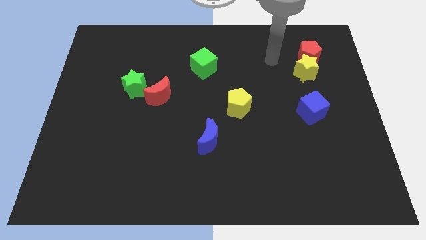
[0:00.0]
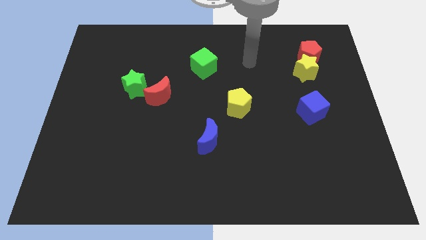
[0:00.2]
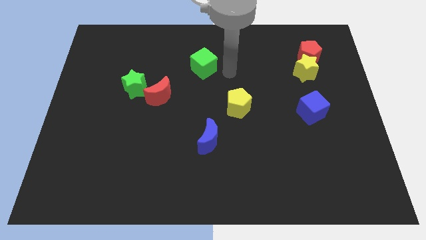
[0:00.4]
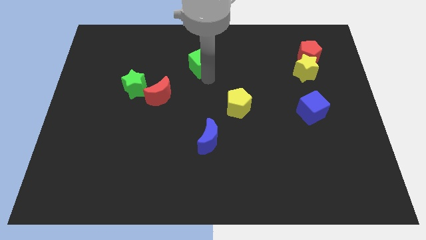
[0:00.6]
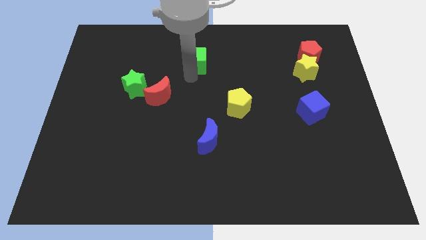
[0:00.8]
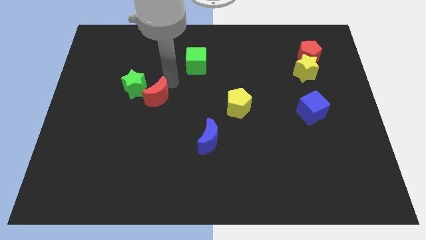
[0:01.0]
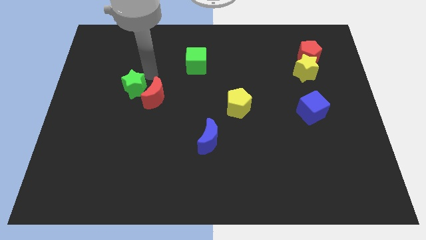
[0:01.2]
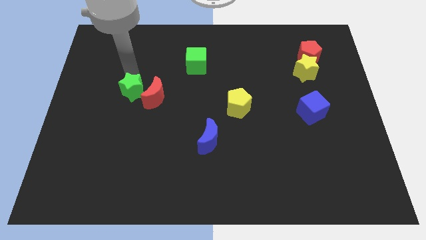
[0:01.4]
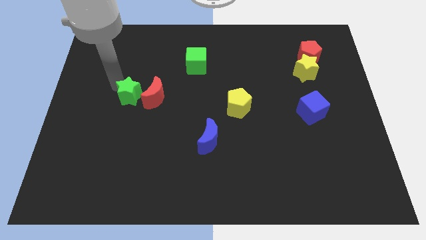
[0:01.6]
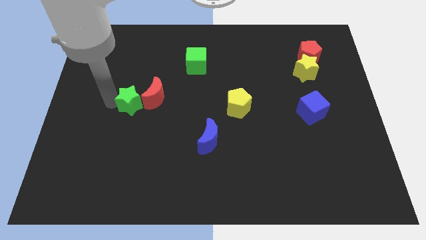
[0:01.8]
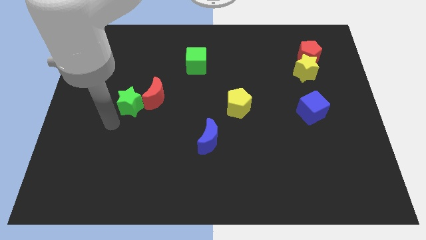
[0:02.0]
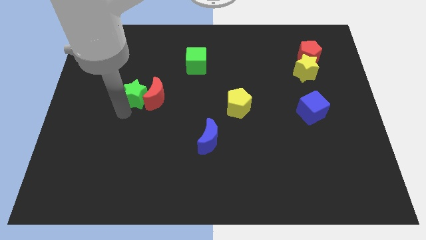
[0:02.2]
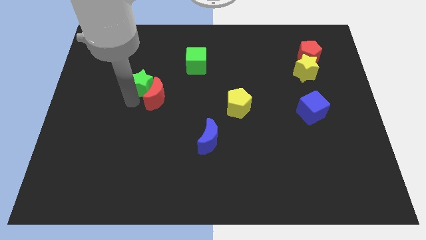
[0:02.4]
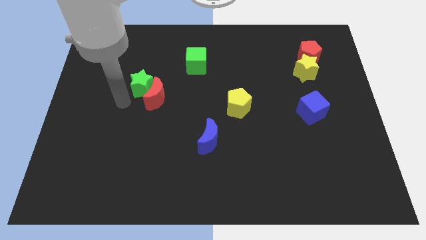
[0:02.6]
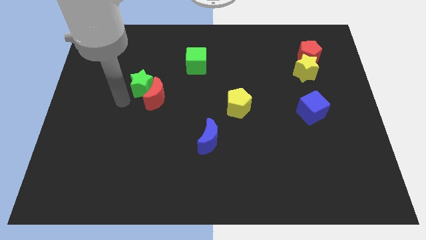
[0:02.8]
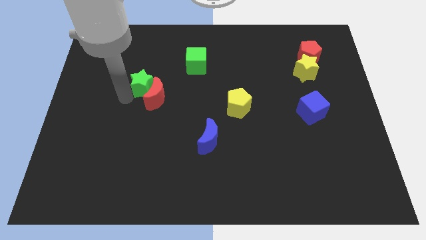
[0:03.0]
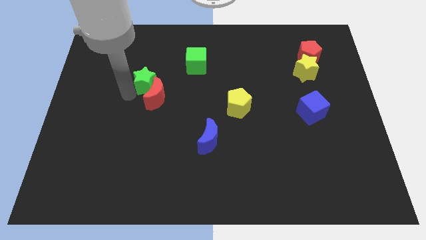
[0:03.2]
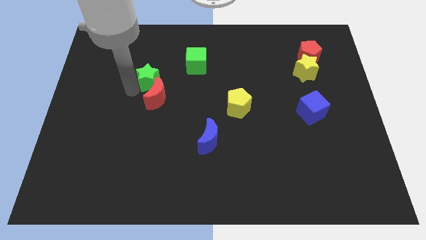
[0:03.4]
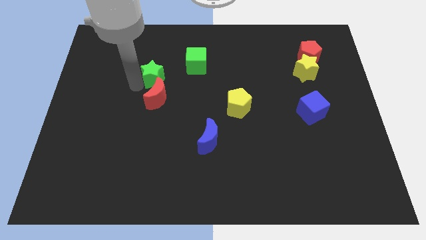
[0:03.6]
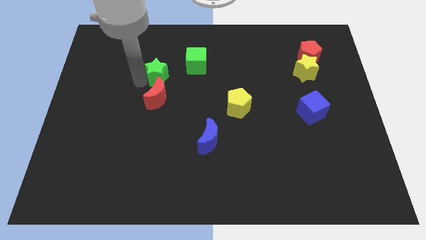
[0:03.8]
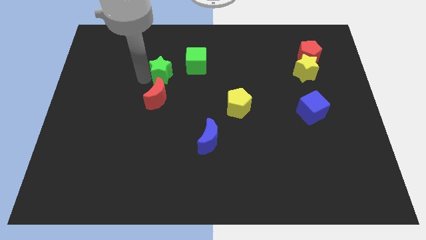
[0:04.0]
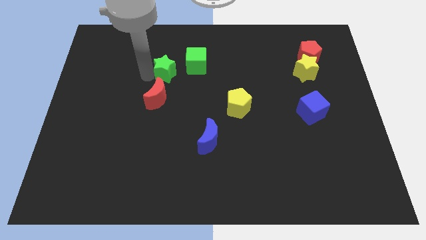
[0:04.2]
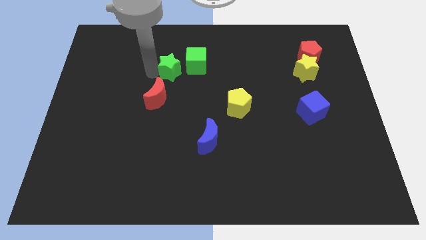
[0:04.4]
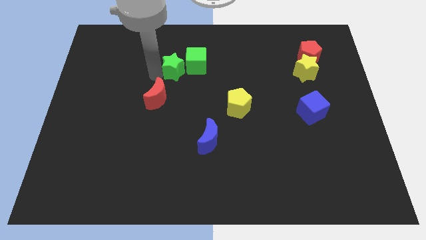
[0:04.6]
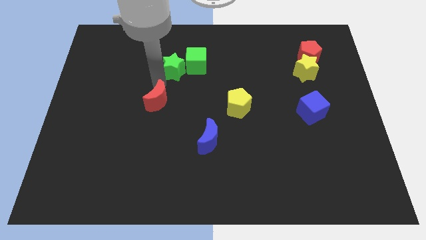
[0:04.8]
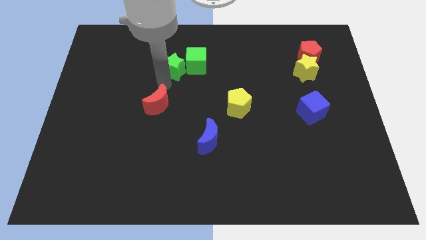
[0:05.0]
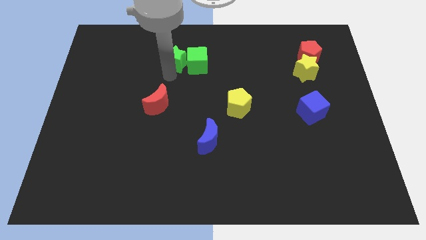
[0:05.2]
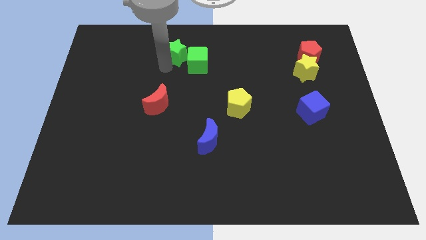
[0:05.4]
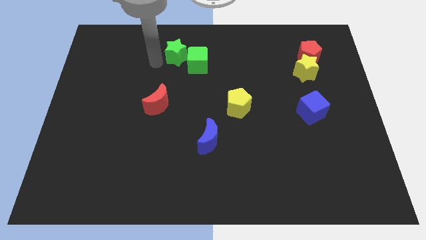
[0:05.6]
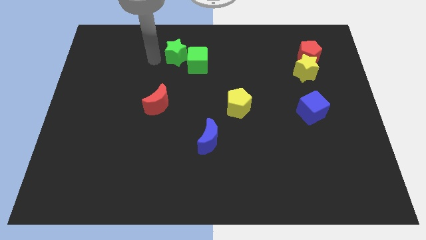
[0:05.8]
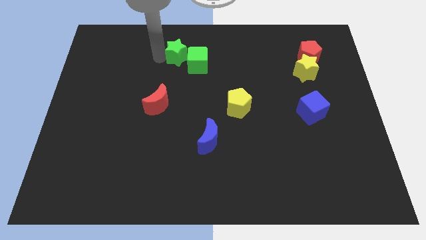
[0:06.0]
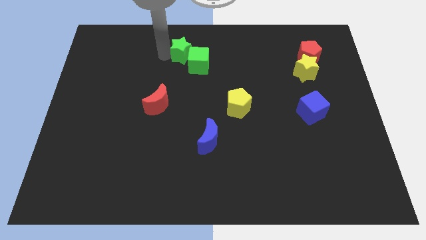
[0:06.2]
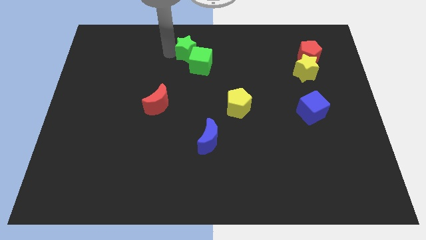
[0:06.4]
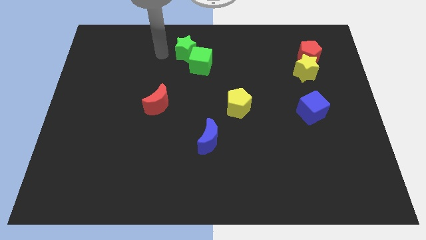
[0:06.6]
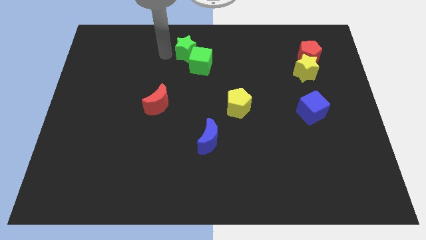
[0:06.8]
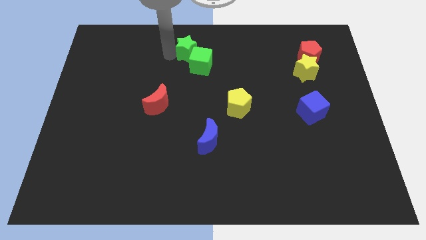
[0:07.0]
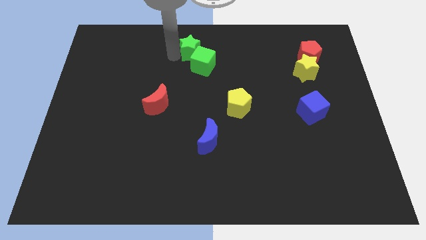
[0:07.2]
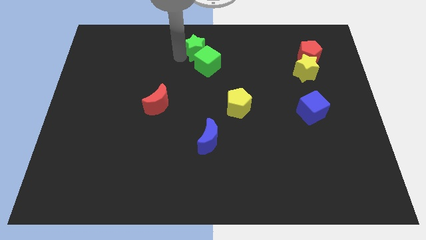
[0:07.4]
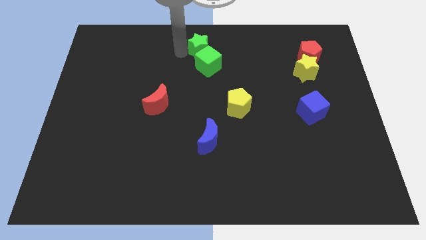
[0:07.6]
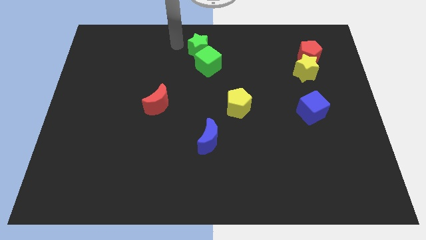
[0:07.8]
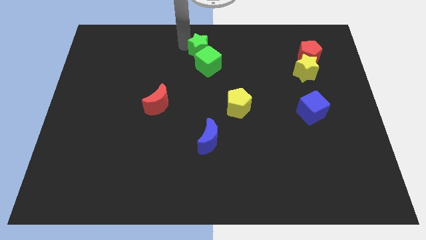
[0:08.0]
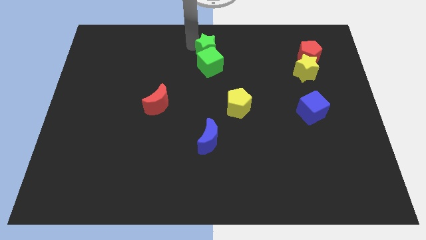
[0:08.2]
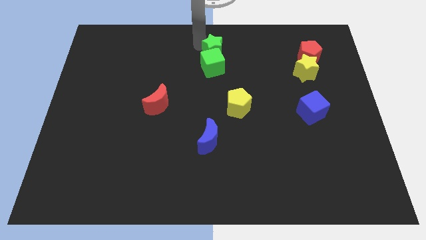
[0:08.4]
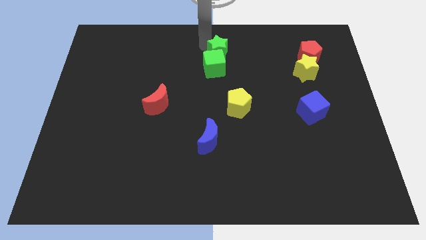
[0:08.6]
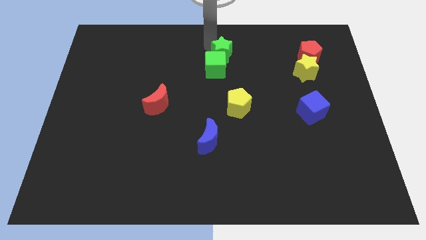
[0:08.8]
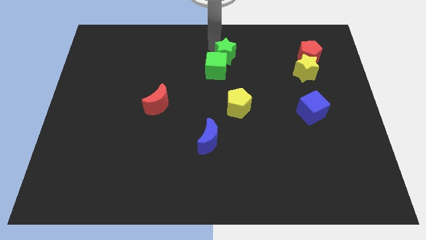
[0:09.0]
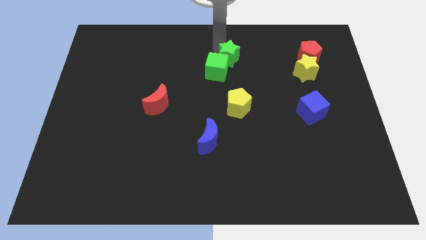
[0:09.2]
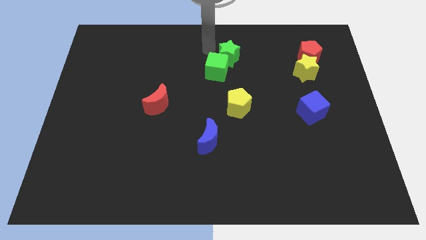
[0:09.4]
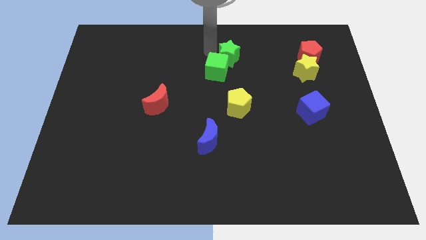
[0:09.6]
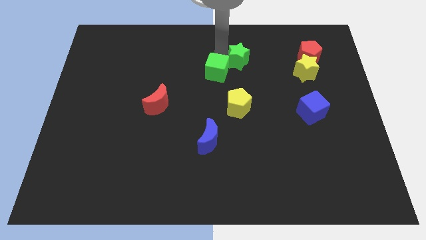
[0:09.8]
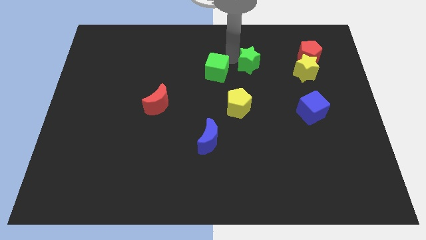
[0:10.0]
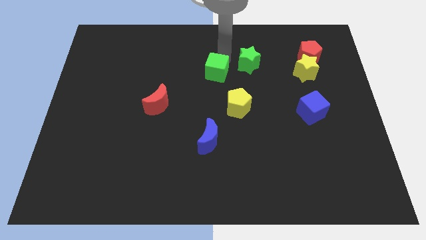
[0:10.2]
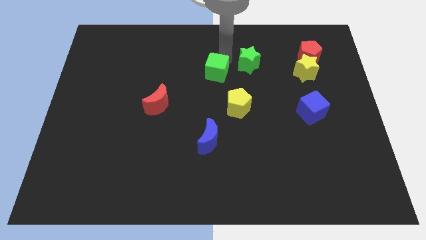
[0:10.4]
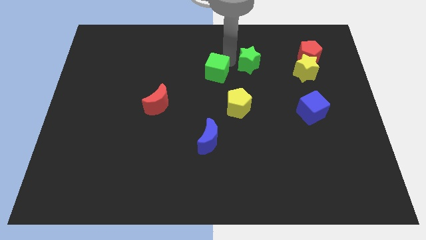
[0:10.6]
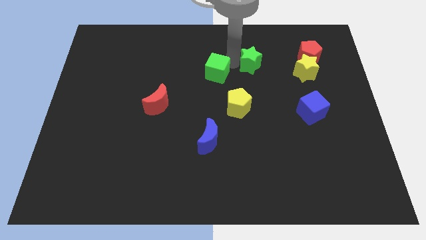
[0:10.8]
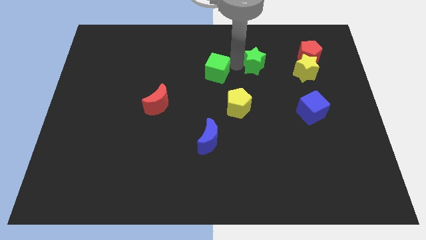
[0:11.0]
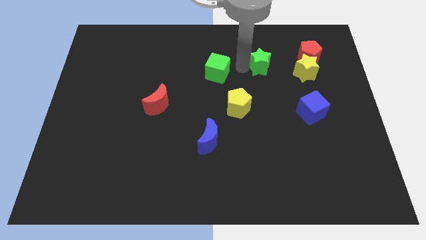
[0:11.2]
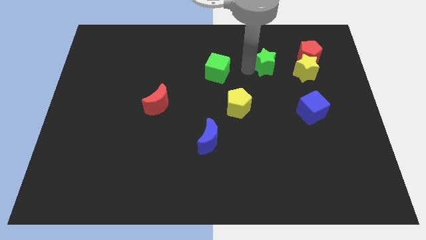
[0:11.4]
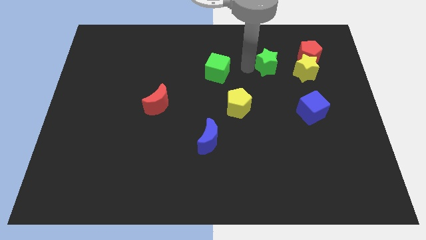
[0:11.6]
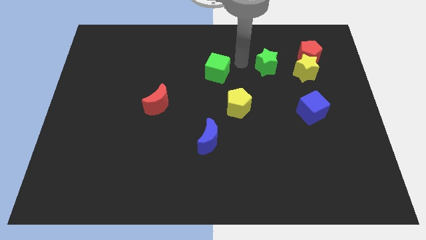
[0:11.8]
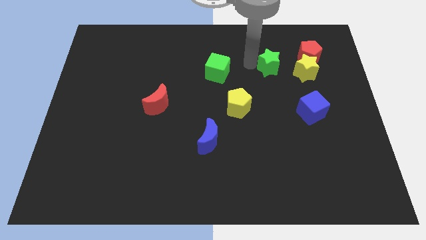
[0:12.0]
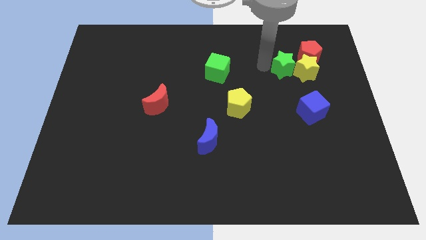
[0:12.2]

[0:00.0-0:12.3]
move the green star towards the yellow star

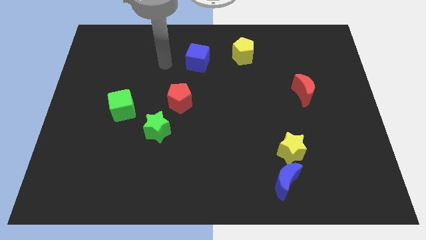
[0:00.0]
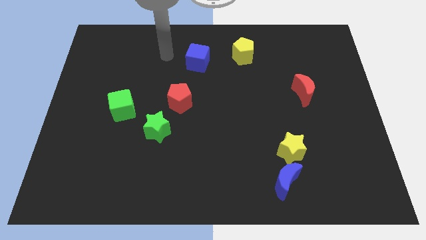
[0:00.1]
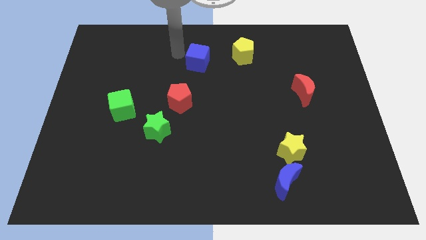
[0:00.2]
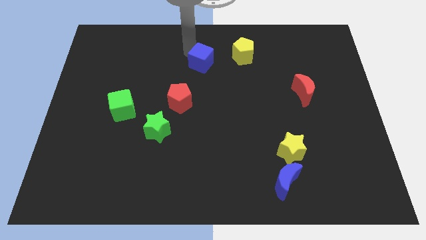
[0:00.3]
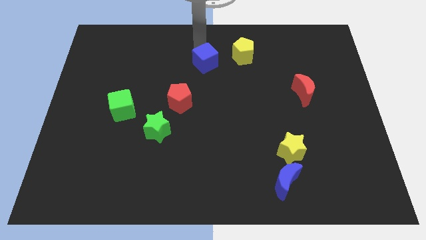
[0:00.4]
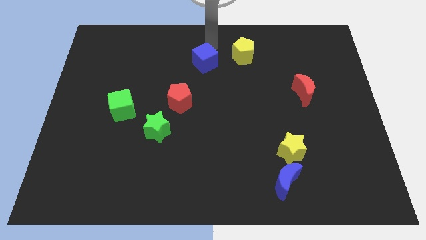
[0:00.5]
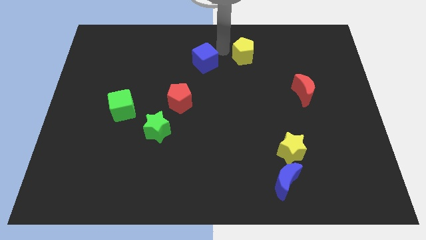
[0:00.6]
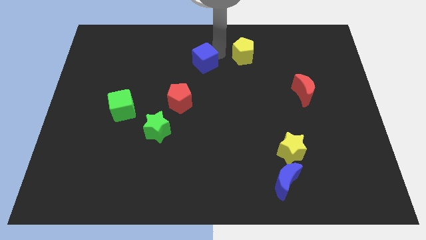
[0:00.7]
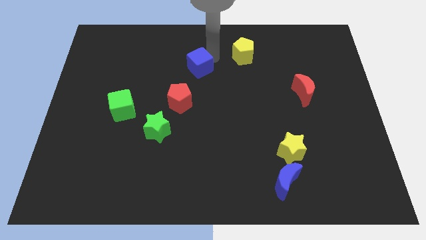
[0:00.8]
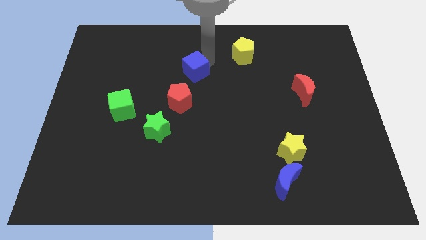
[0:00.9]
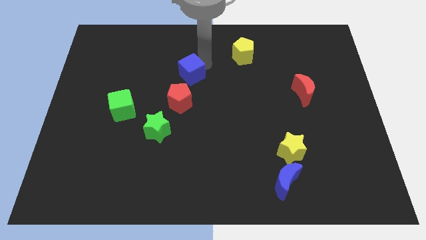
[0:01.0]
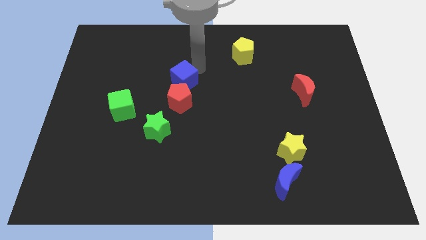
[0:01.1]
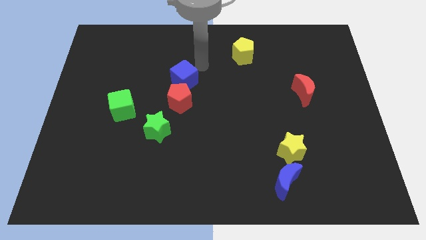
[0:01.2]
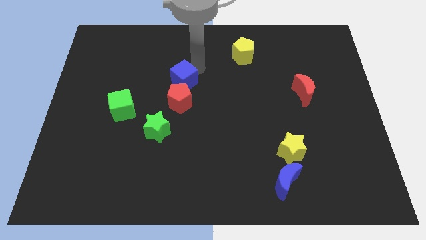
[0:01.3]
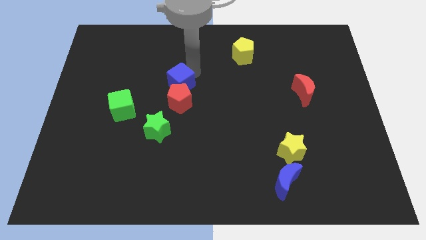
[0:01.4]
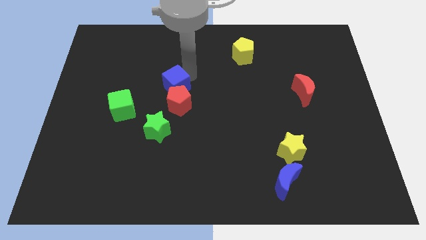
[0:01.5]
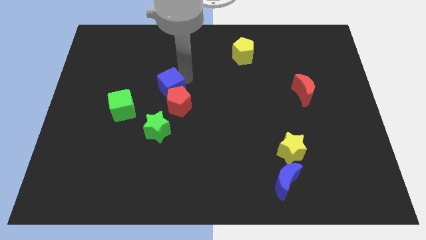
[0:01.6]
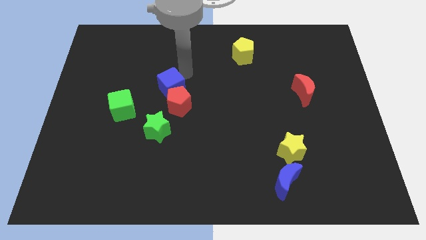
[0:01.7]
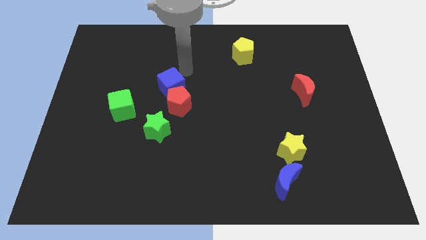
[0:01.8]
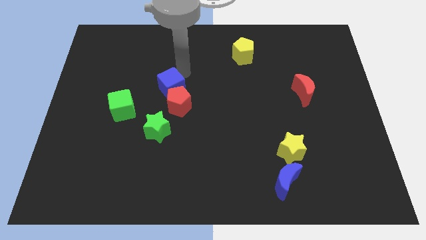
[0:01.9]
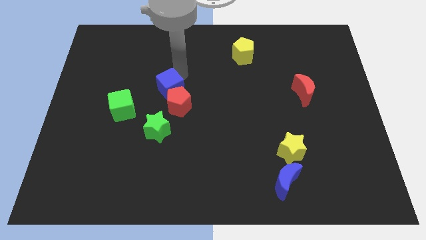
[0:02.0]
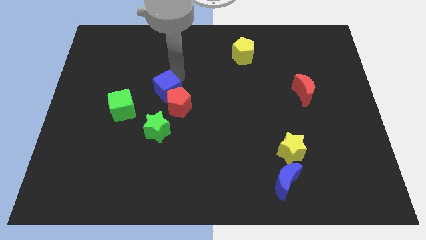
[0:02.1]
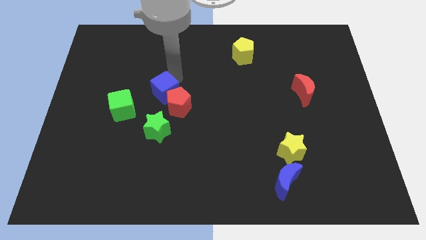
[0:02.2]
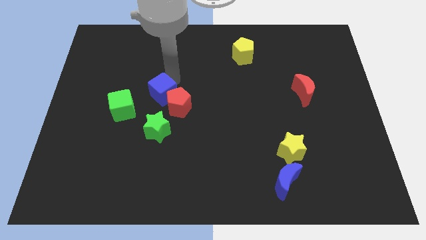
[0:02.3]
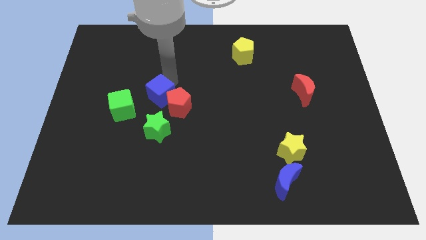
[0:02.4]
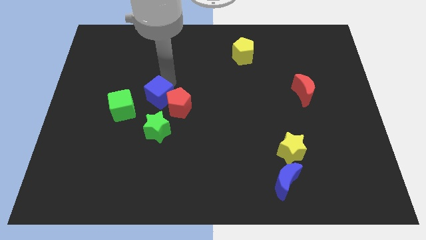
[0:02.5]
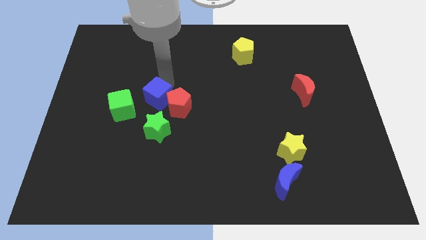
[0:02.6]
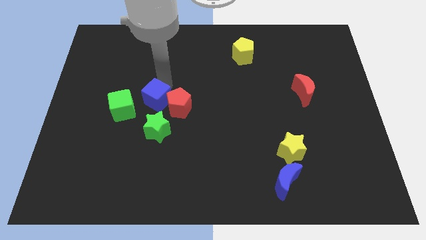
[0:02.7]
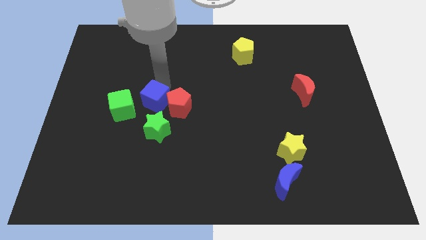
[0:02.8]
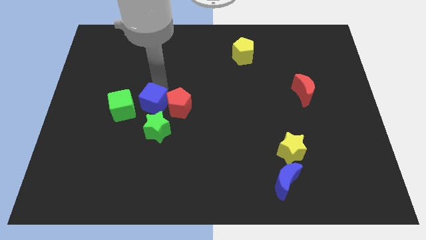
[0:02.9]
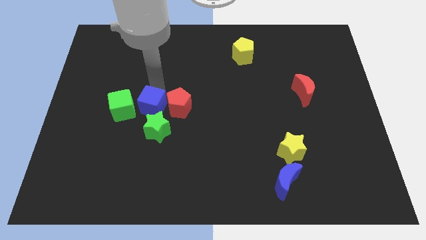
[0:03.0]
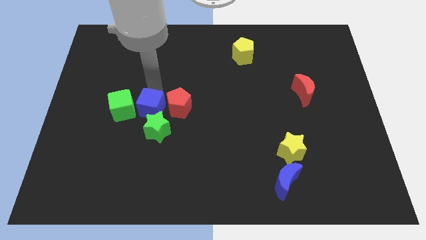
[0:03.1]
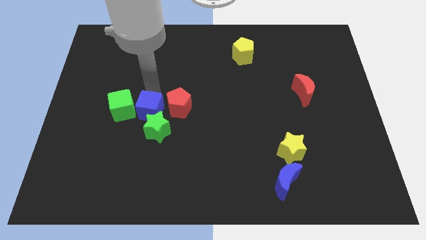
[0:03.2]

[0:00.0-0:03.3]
put the blue cube towards the green star
